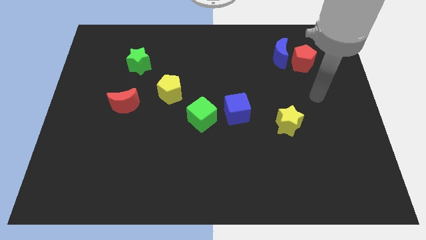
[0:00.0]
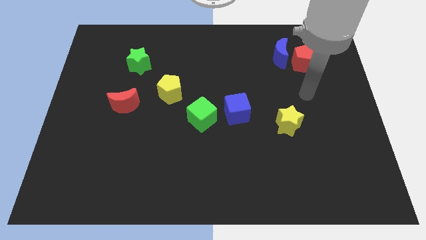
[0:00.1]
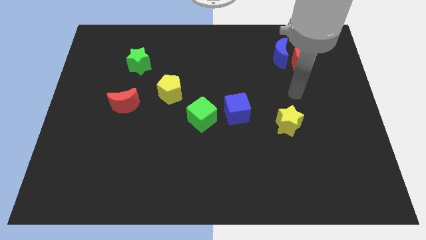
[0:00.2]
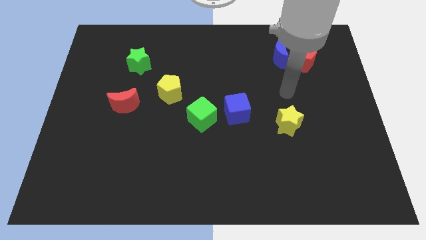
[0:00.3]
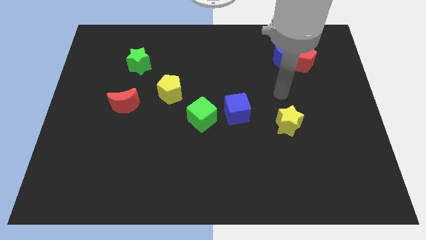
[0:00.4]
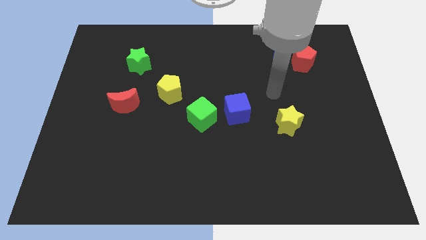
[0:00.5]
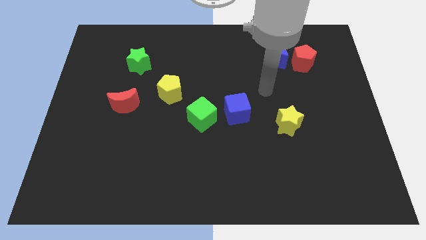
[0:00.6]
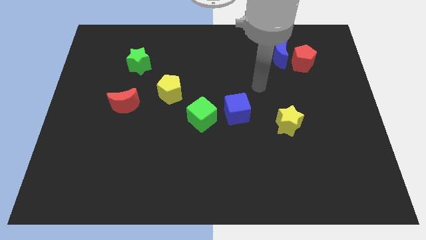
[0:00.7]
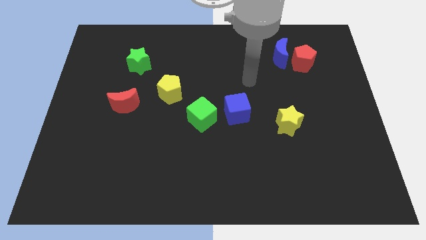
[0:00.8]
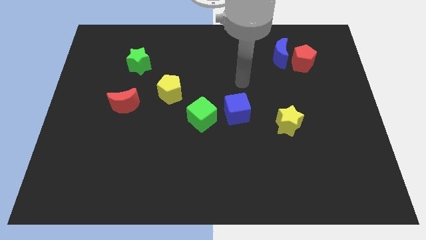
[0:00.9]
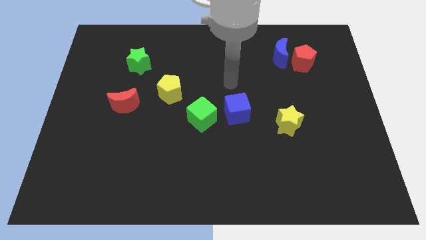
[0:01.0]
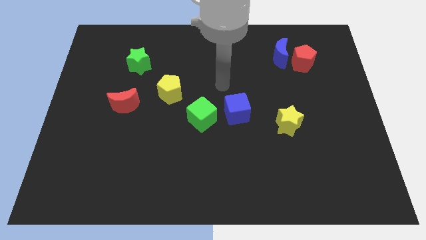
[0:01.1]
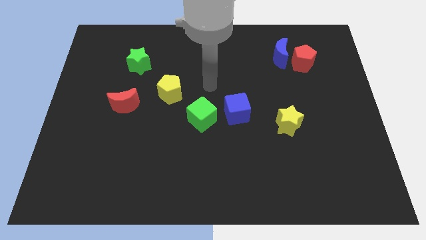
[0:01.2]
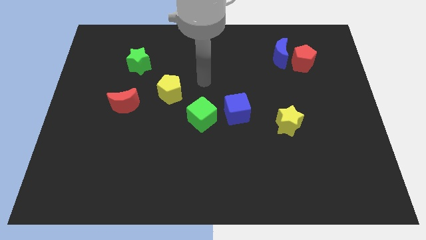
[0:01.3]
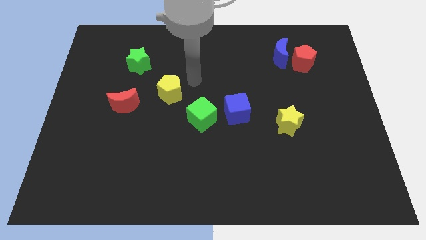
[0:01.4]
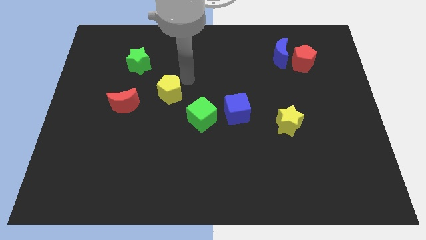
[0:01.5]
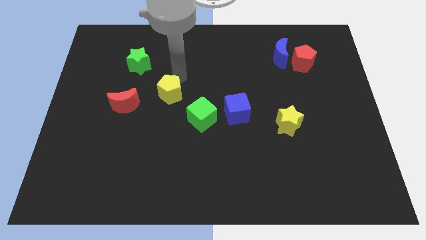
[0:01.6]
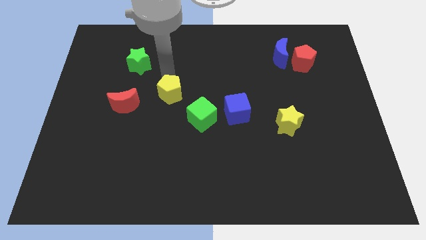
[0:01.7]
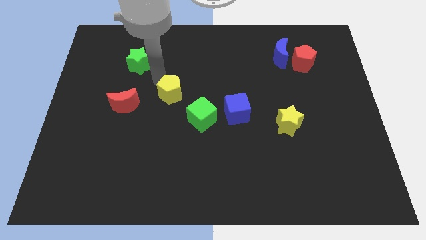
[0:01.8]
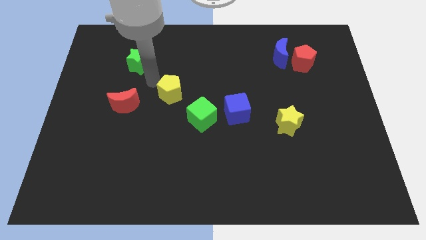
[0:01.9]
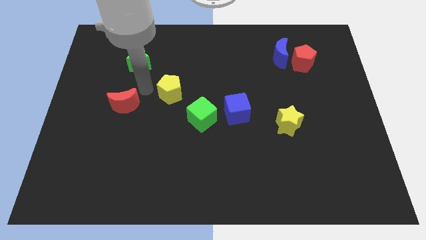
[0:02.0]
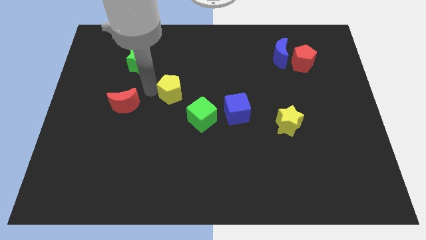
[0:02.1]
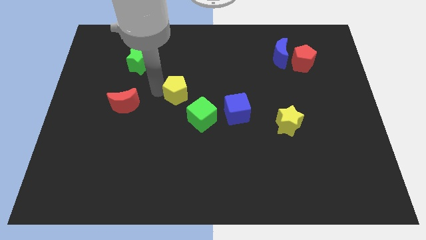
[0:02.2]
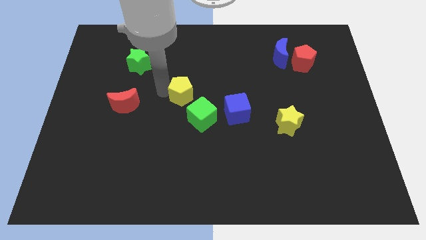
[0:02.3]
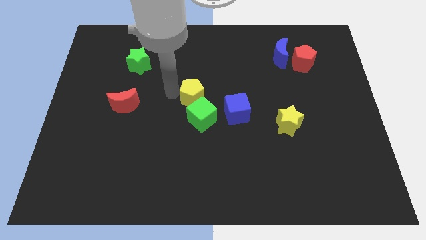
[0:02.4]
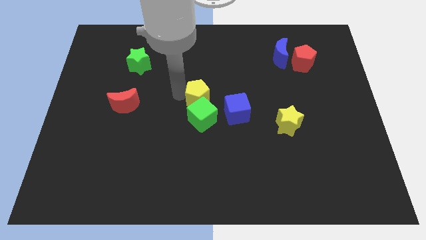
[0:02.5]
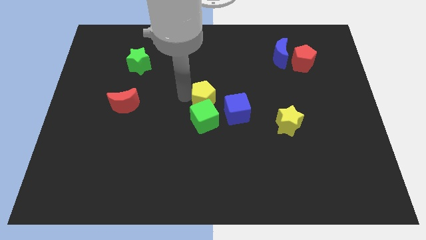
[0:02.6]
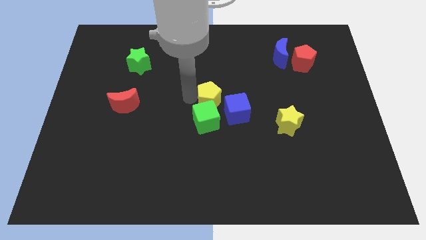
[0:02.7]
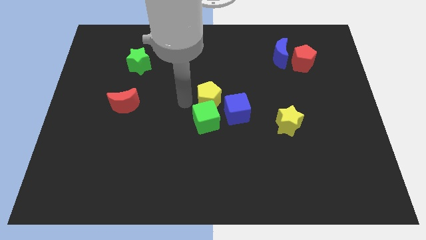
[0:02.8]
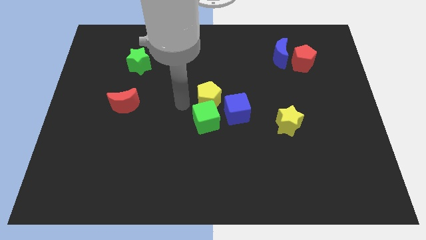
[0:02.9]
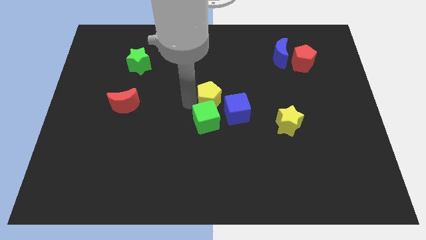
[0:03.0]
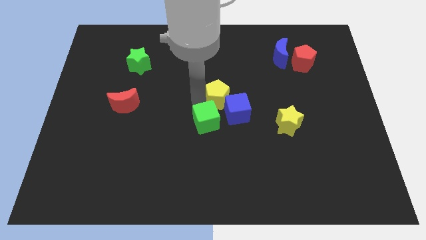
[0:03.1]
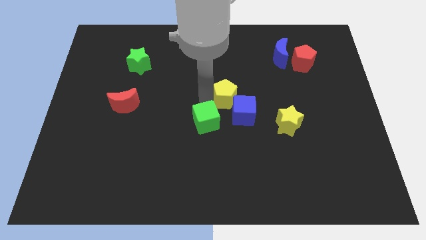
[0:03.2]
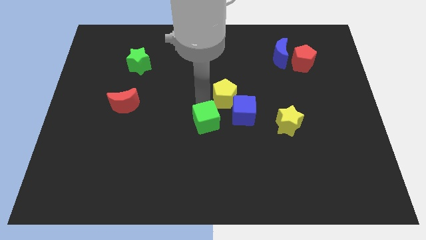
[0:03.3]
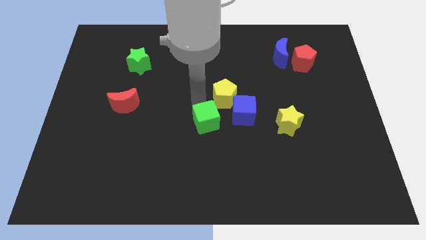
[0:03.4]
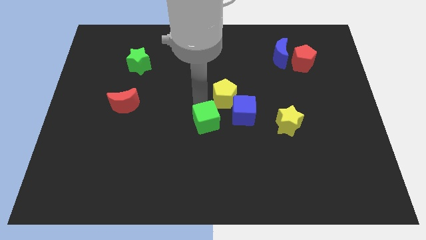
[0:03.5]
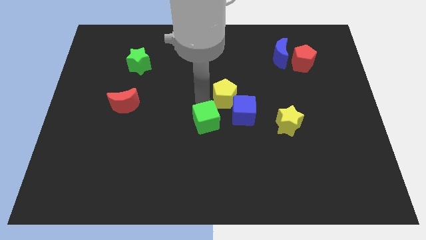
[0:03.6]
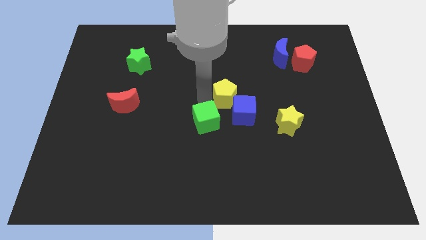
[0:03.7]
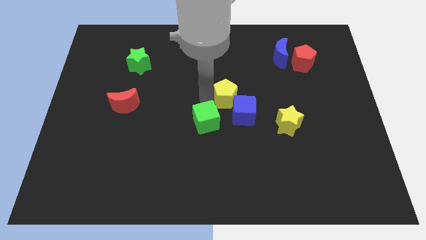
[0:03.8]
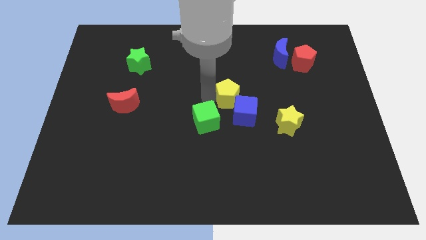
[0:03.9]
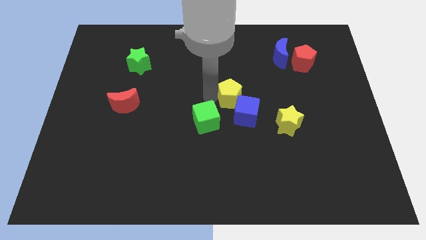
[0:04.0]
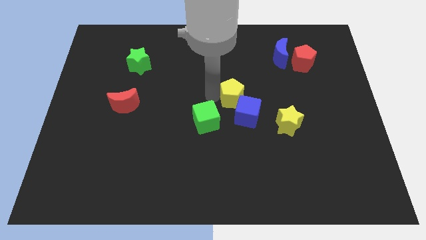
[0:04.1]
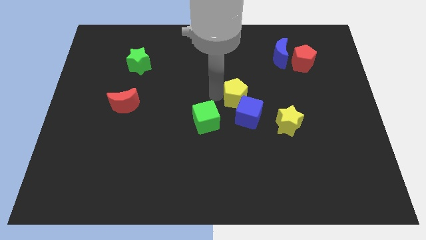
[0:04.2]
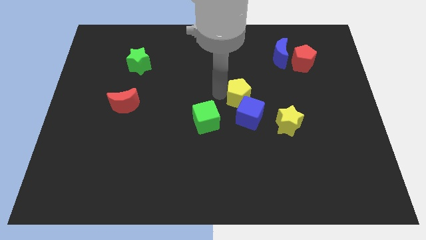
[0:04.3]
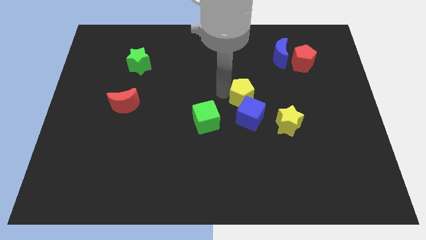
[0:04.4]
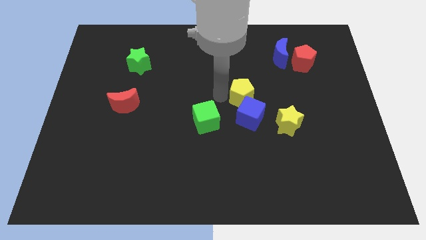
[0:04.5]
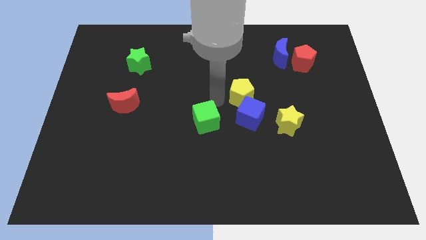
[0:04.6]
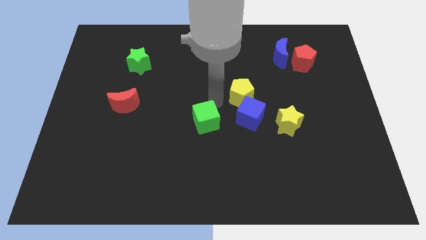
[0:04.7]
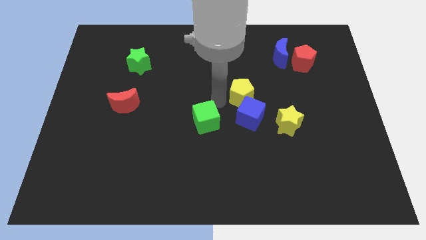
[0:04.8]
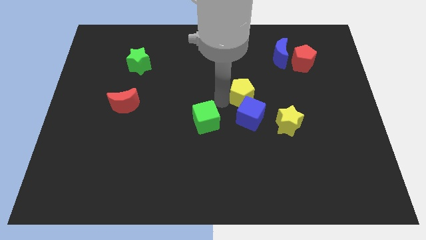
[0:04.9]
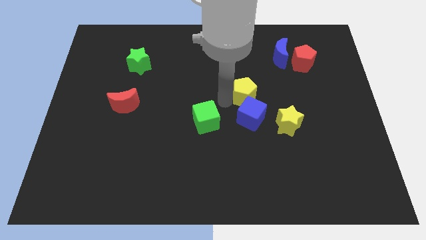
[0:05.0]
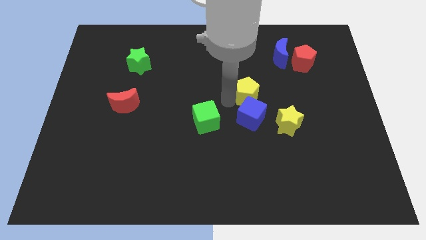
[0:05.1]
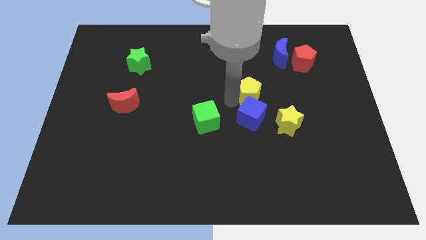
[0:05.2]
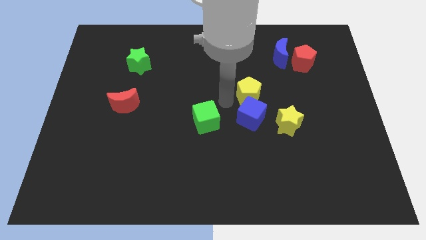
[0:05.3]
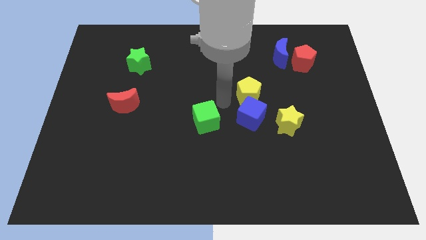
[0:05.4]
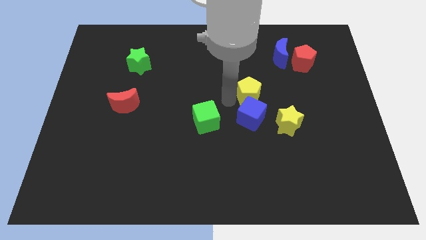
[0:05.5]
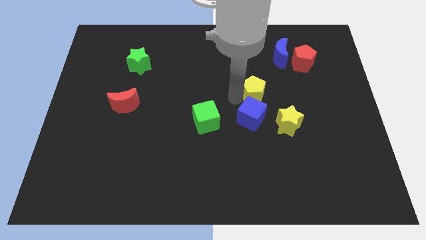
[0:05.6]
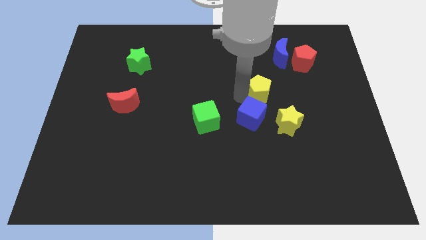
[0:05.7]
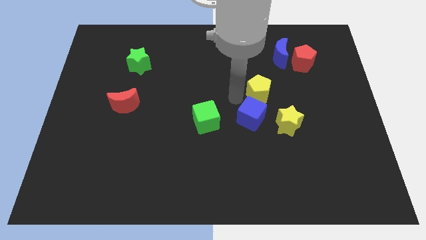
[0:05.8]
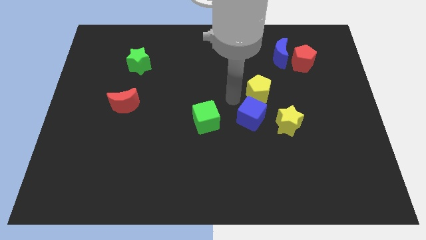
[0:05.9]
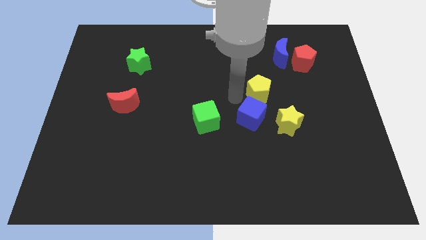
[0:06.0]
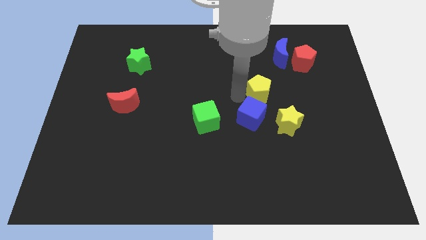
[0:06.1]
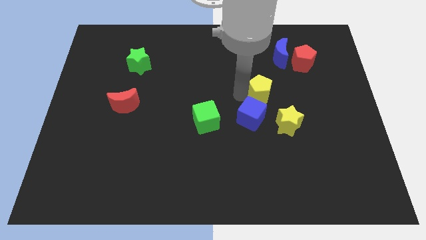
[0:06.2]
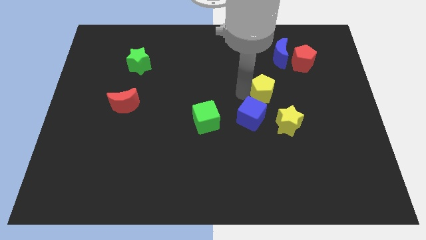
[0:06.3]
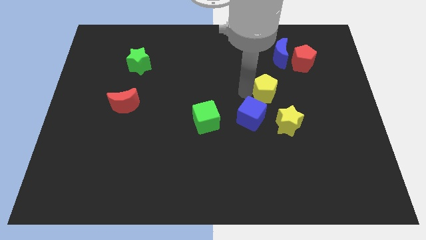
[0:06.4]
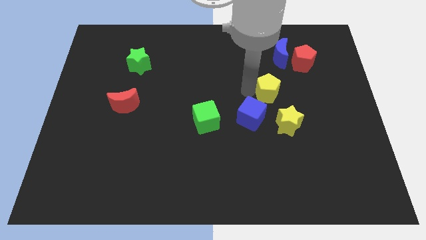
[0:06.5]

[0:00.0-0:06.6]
slide the yellow pentagon to the bottom of the blue moon

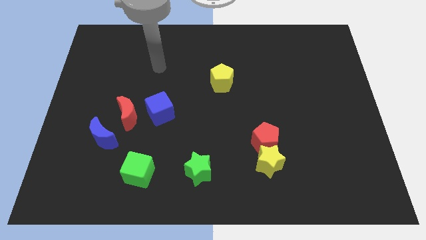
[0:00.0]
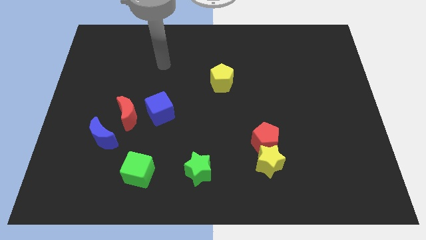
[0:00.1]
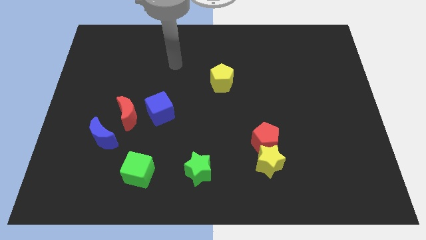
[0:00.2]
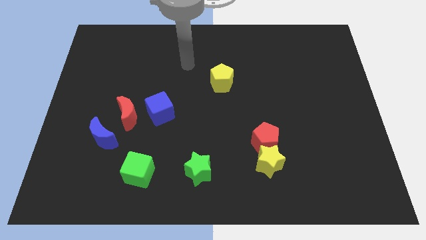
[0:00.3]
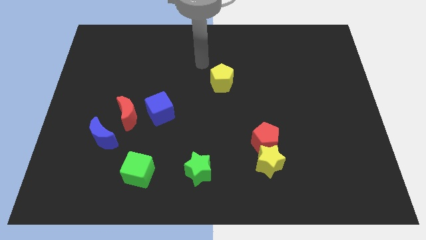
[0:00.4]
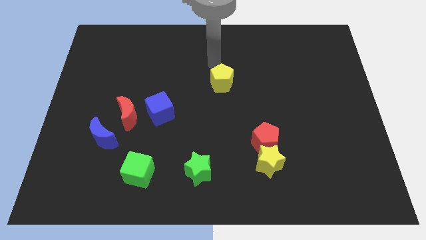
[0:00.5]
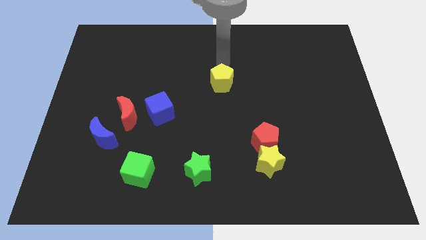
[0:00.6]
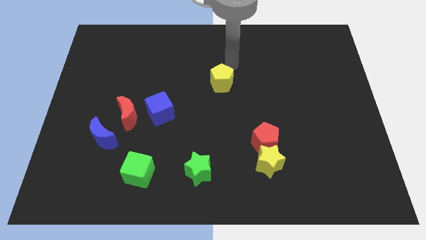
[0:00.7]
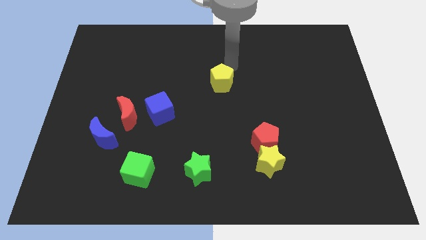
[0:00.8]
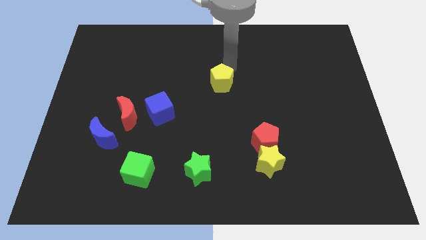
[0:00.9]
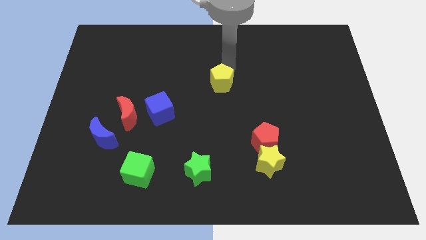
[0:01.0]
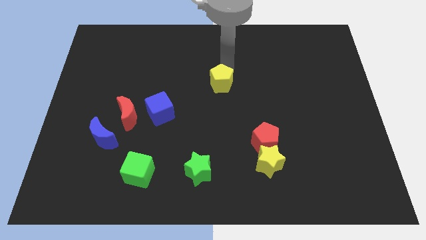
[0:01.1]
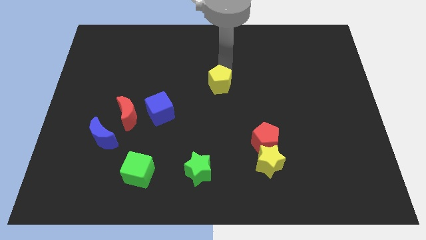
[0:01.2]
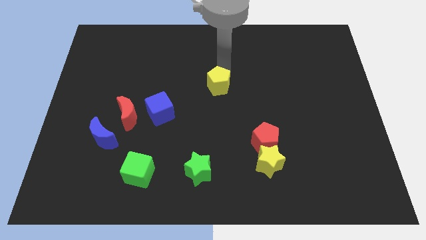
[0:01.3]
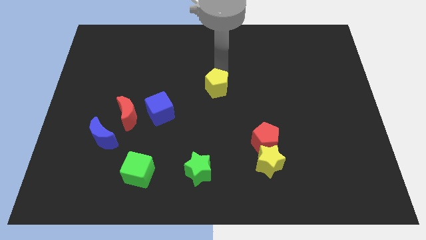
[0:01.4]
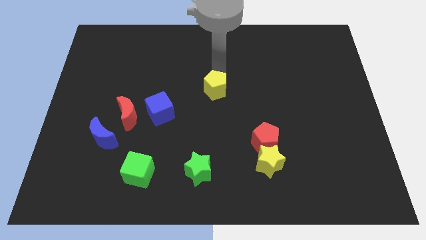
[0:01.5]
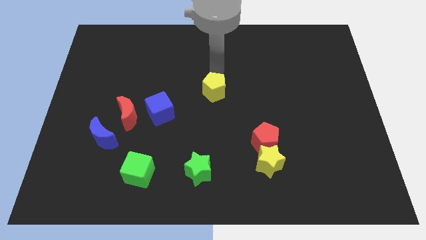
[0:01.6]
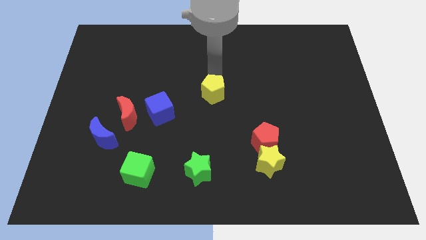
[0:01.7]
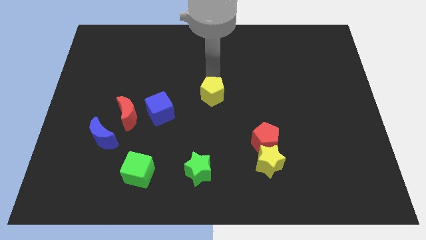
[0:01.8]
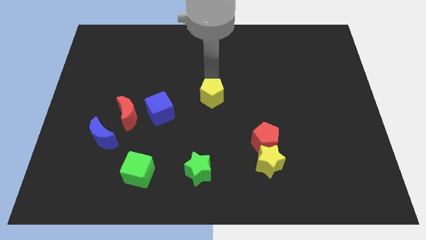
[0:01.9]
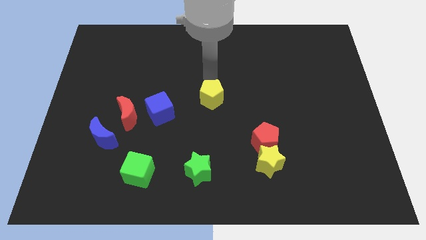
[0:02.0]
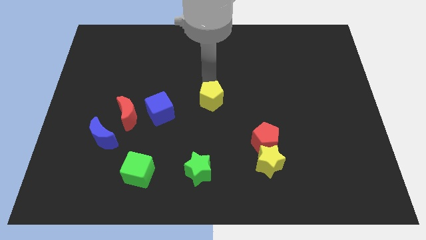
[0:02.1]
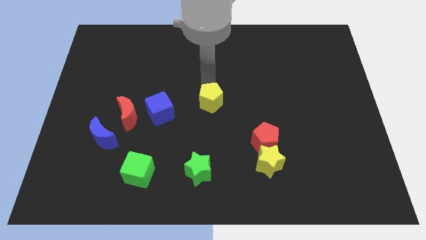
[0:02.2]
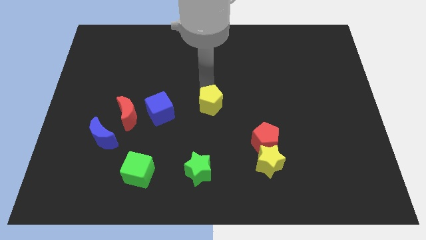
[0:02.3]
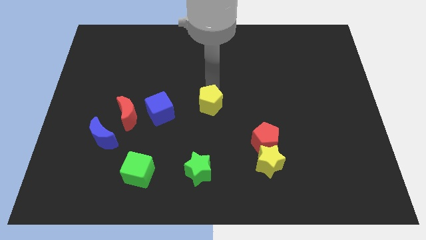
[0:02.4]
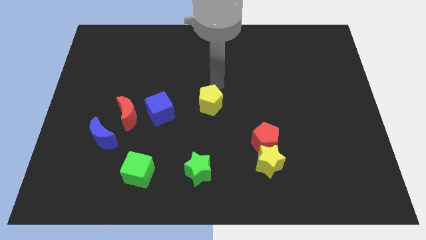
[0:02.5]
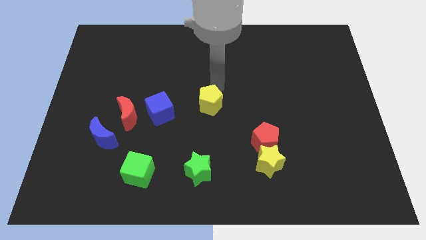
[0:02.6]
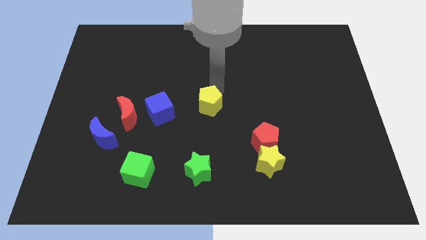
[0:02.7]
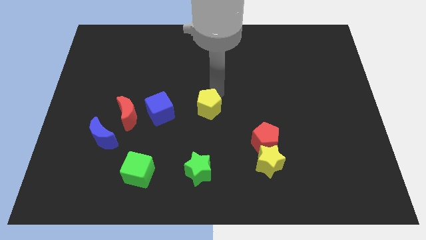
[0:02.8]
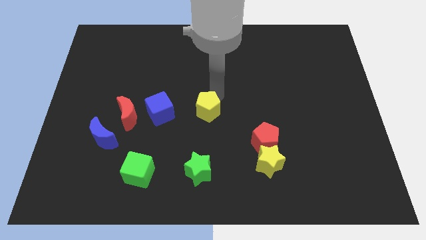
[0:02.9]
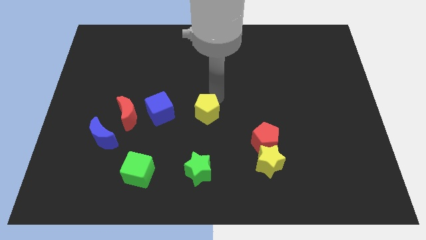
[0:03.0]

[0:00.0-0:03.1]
put the yellow pentagon above the green star
